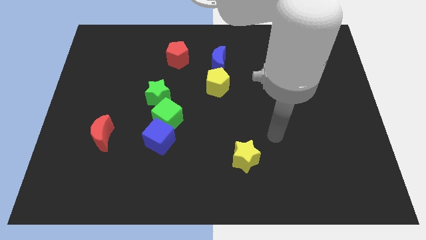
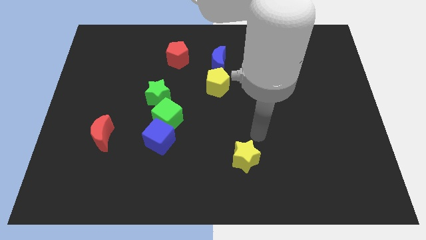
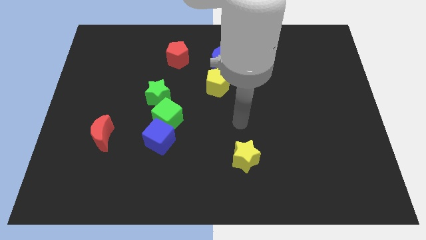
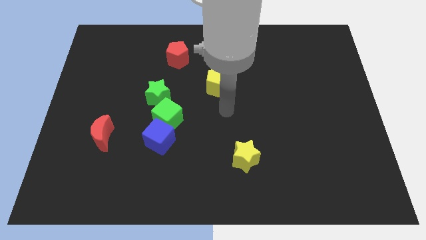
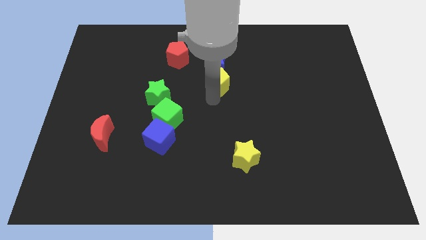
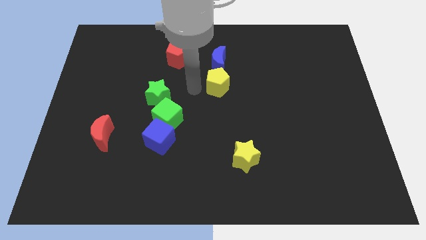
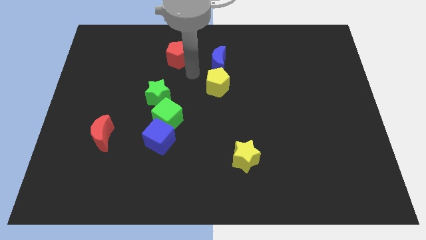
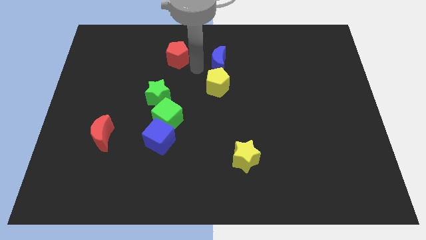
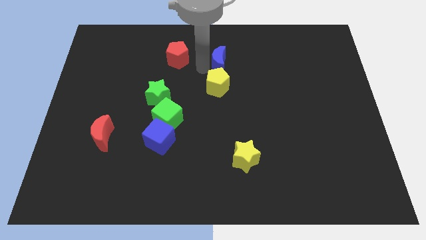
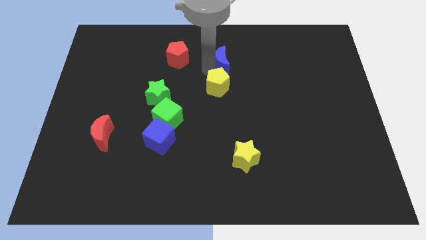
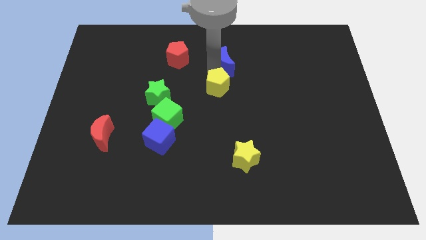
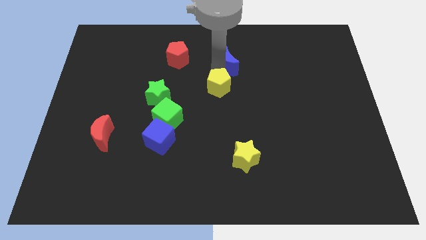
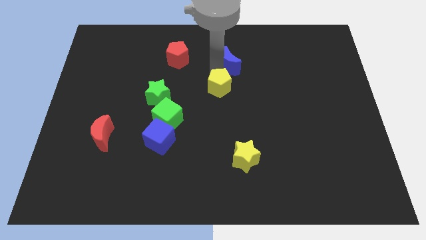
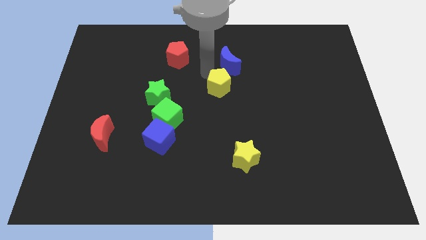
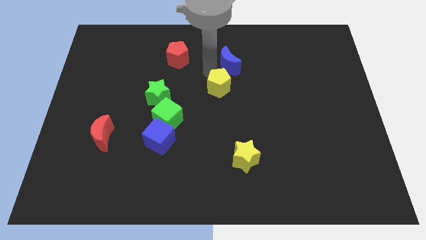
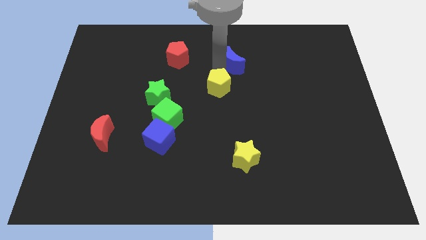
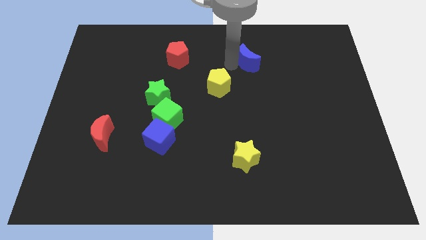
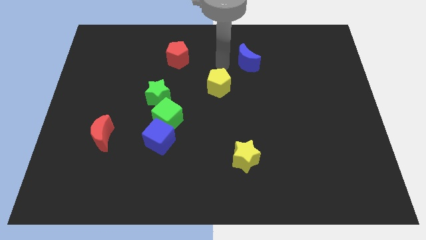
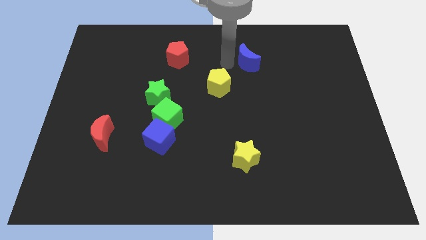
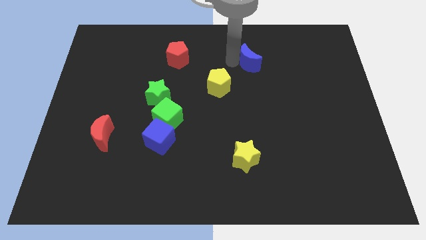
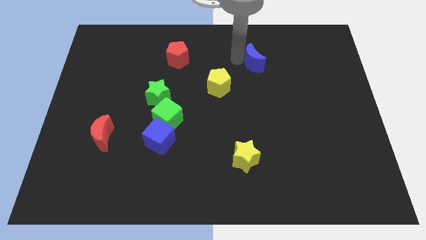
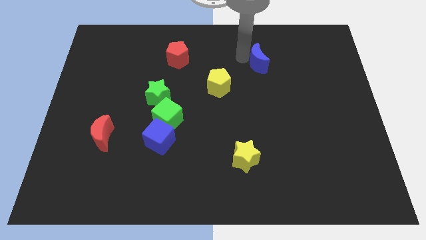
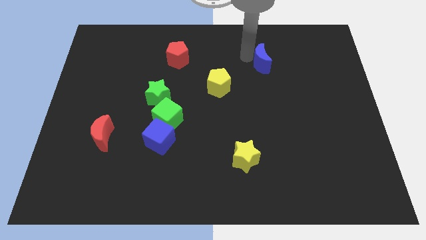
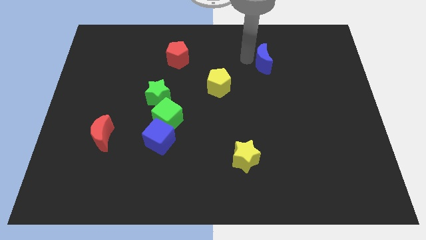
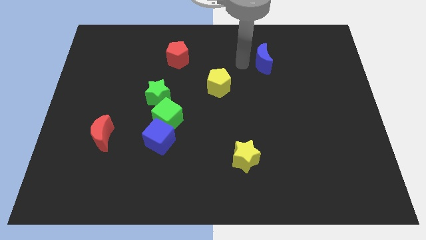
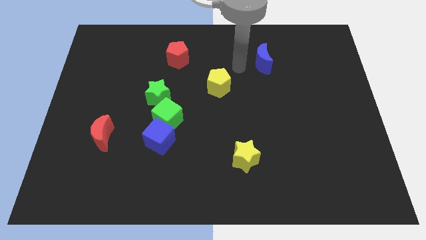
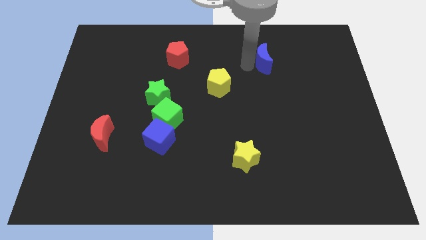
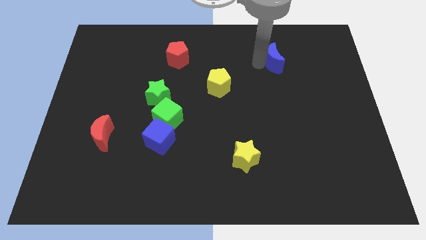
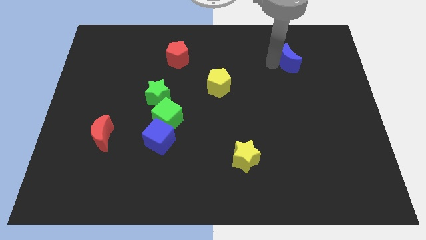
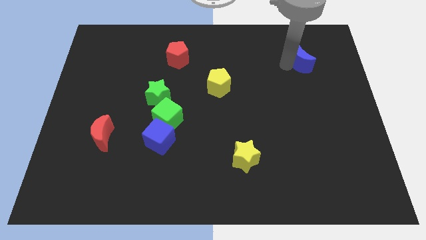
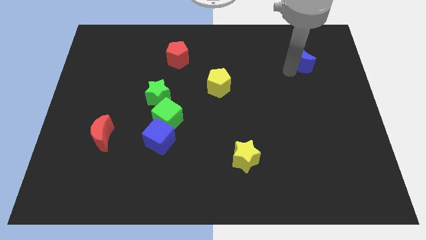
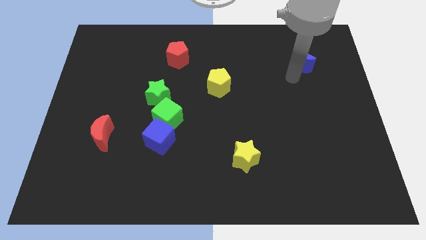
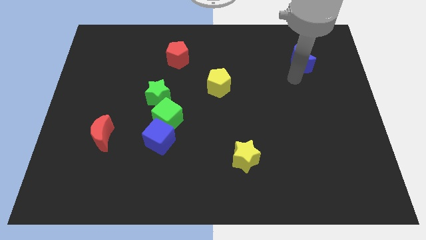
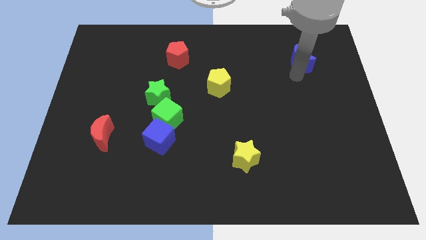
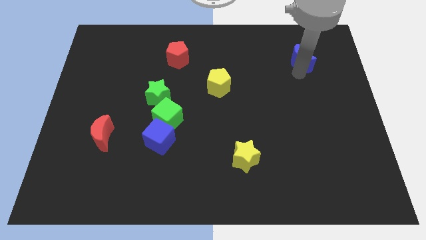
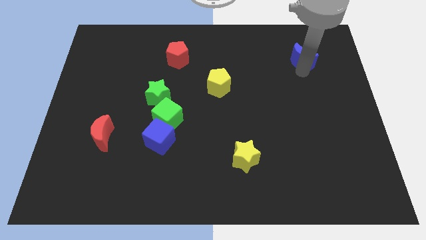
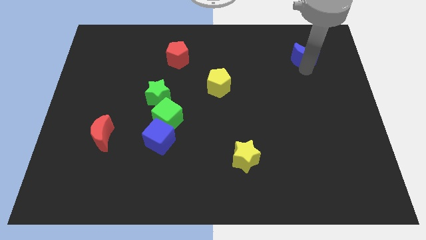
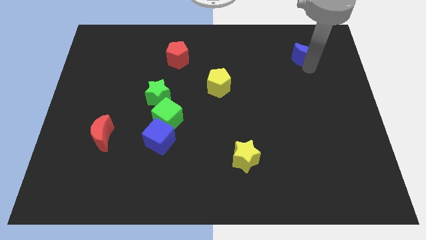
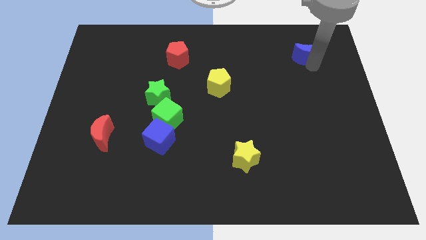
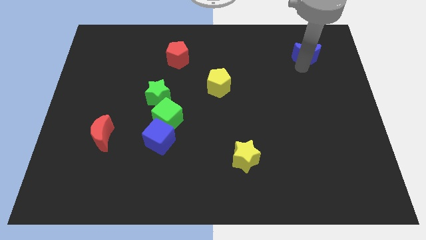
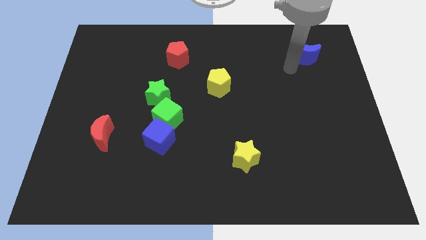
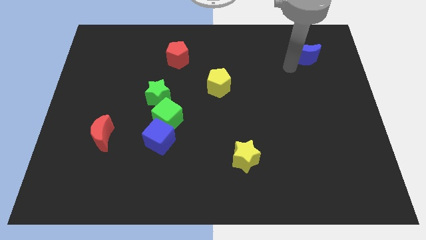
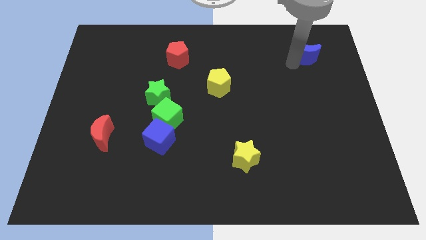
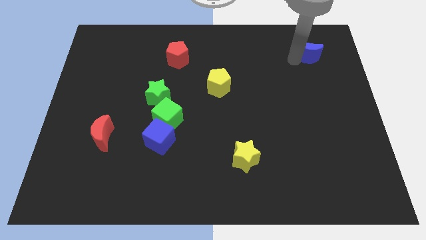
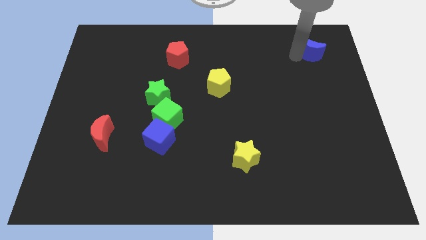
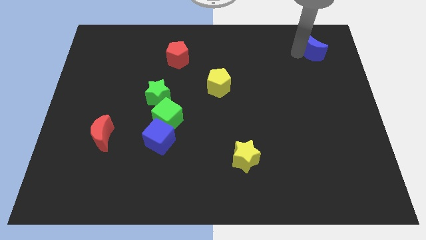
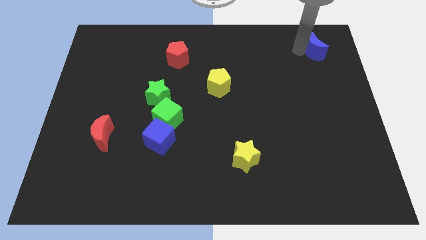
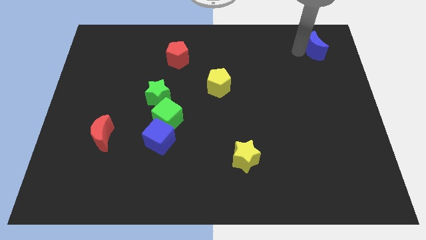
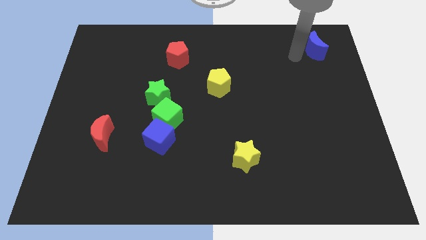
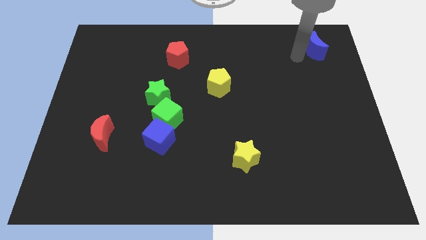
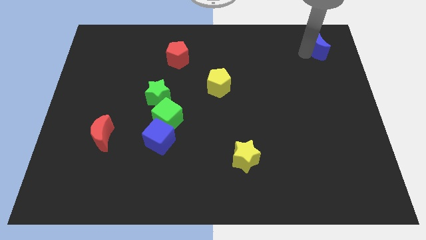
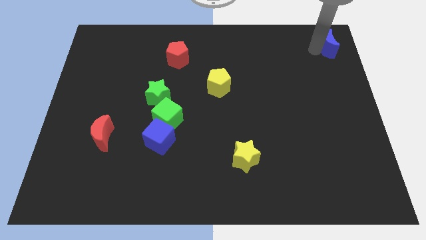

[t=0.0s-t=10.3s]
move the blue moon to the top right of the board

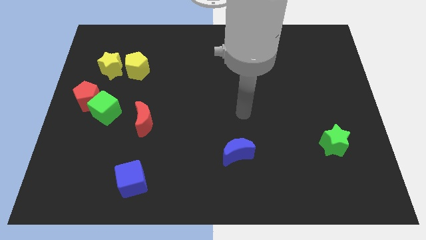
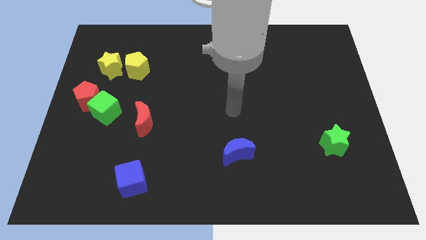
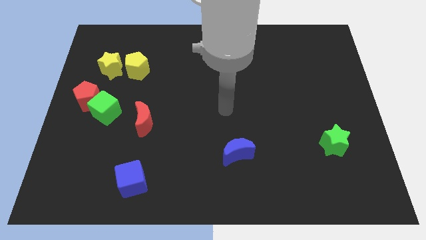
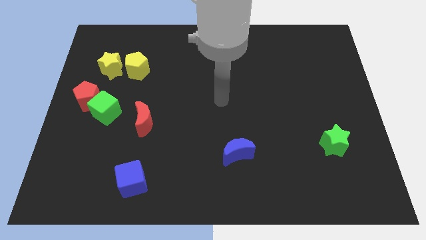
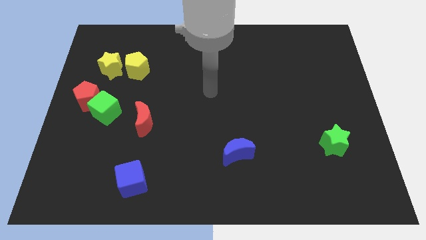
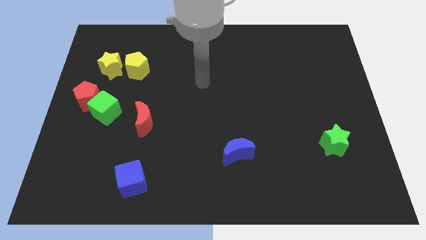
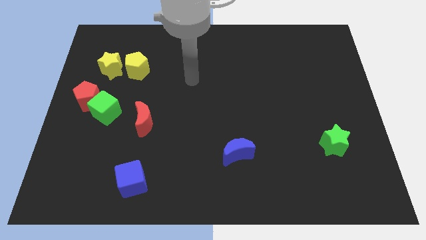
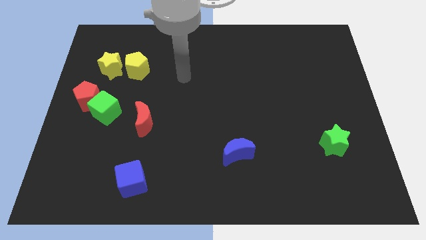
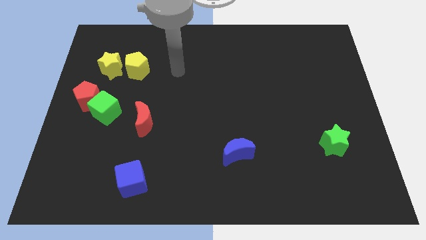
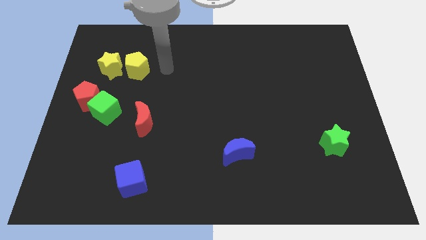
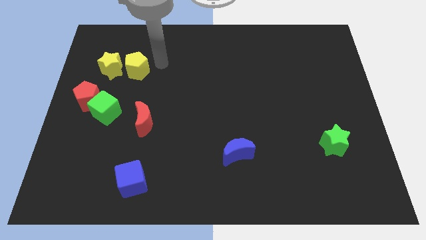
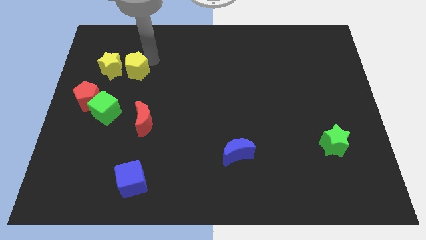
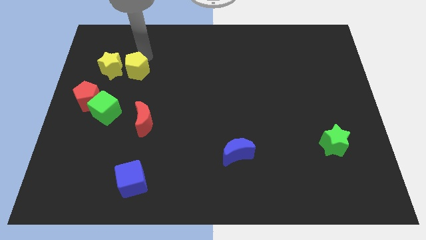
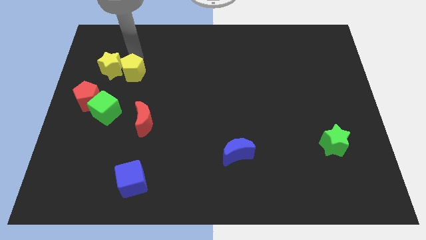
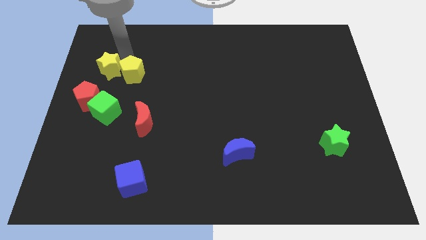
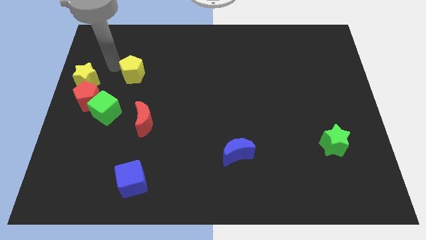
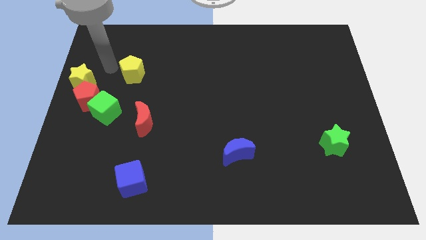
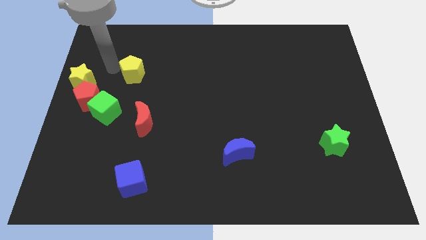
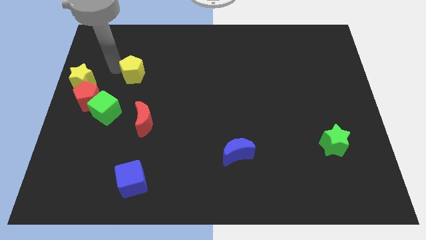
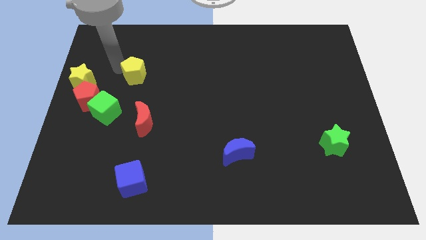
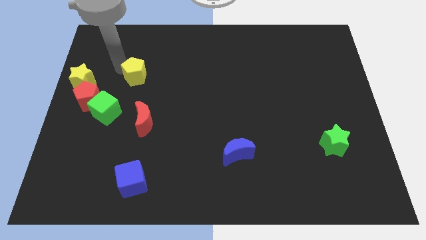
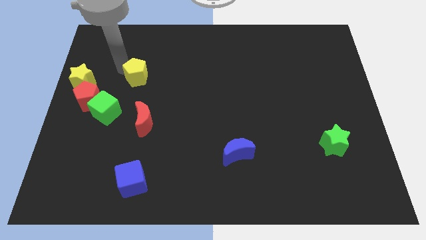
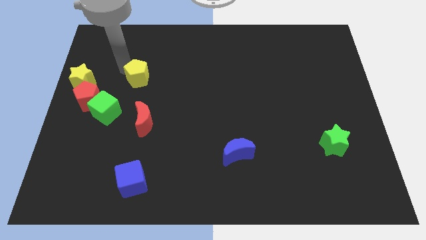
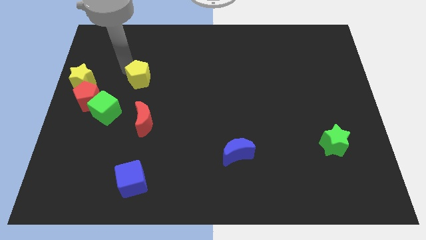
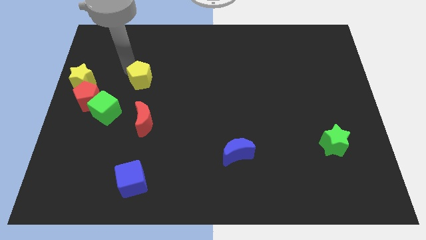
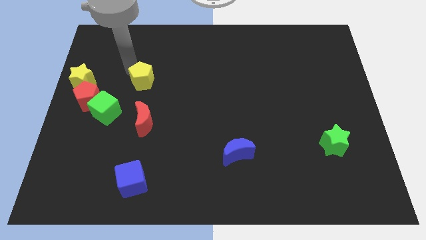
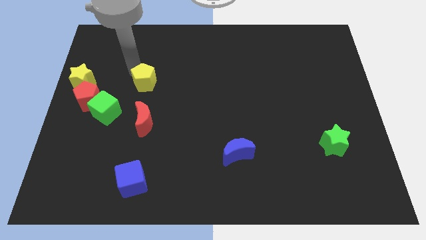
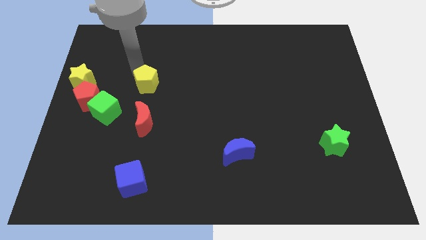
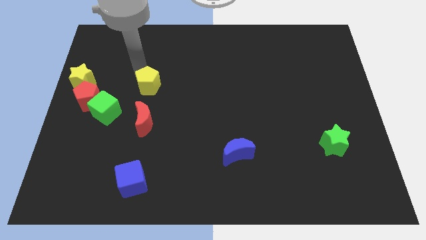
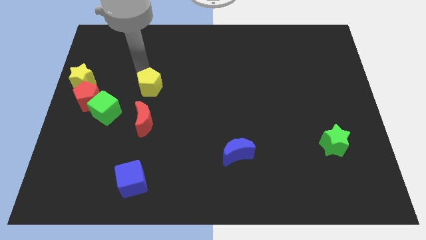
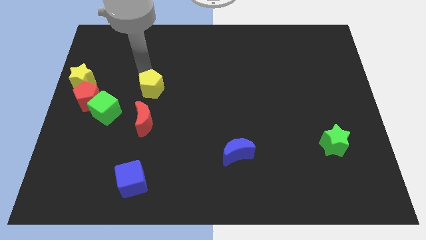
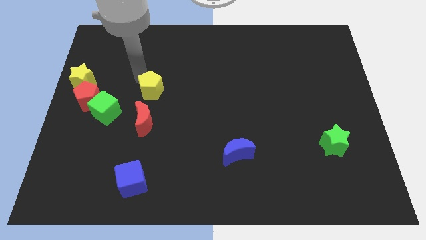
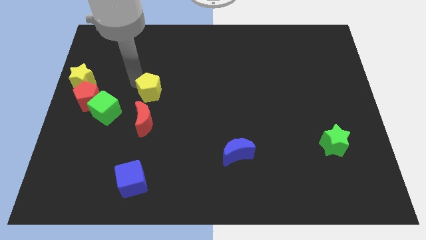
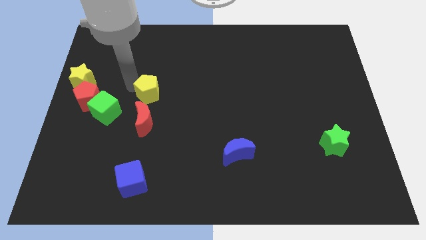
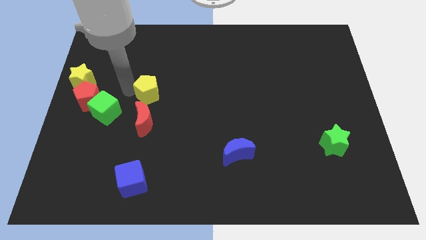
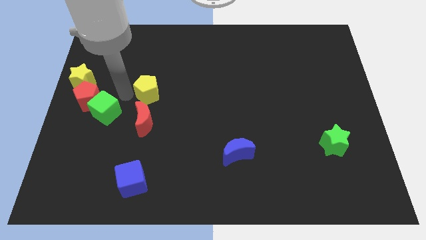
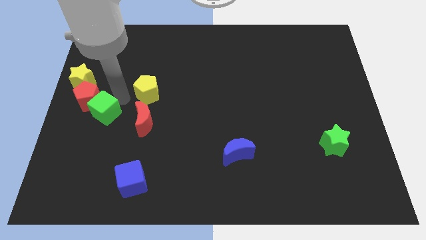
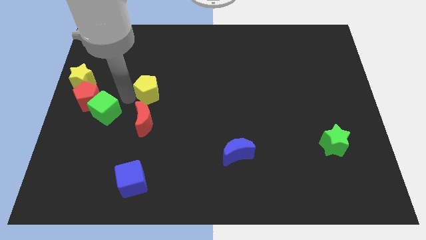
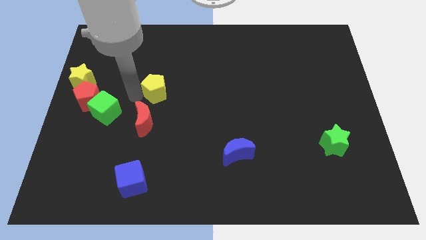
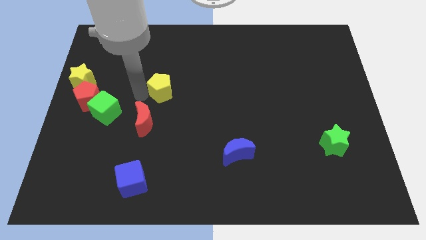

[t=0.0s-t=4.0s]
move the yellow pentagon to the center of the board
